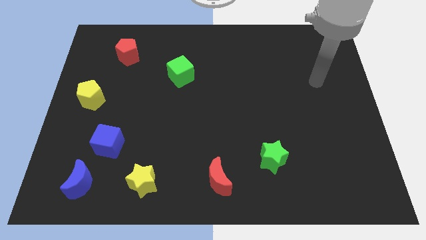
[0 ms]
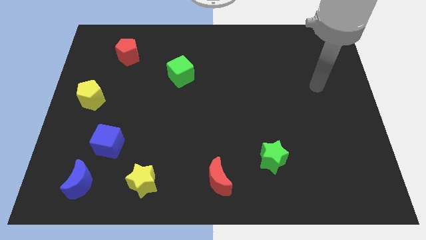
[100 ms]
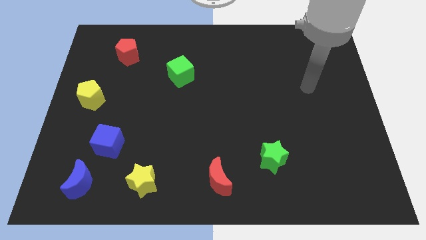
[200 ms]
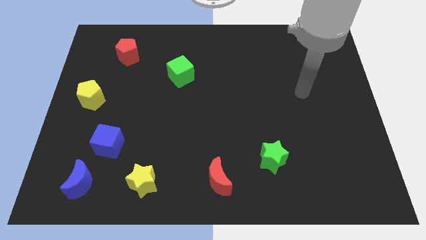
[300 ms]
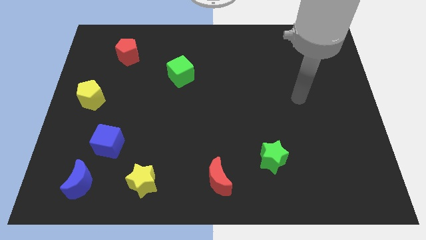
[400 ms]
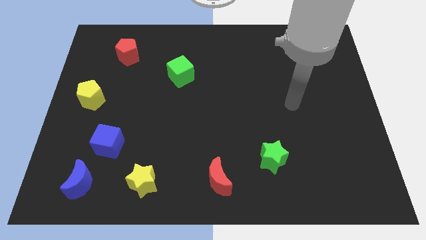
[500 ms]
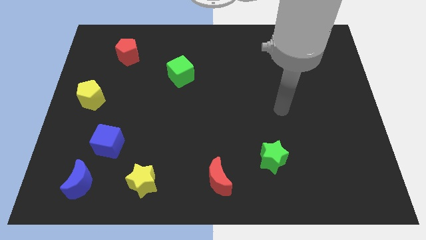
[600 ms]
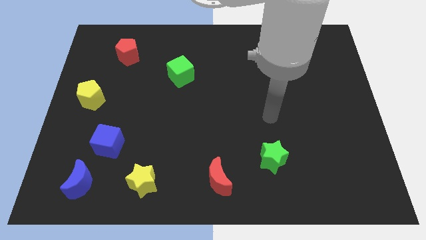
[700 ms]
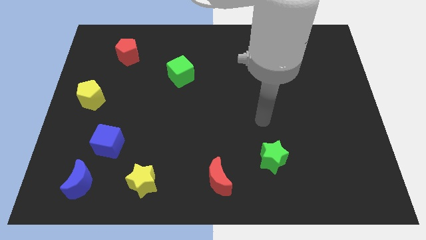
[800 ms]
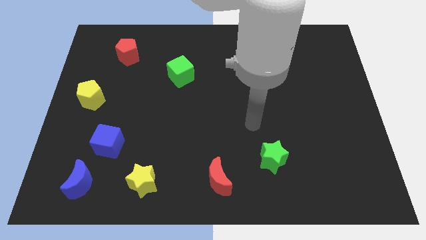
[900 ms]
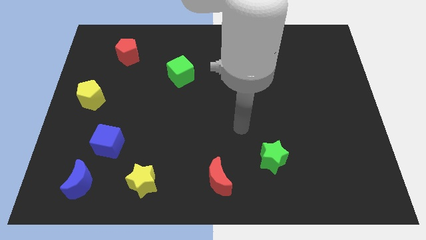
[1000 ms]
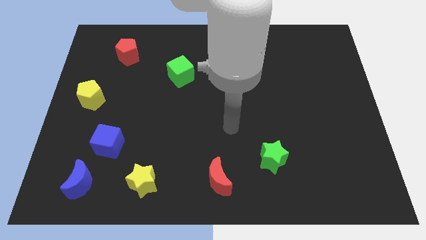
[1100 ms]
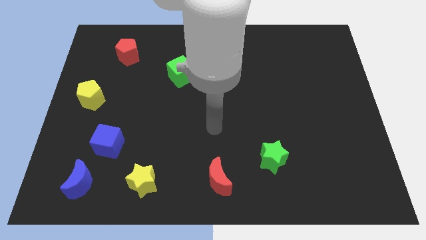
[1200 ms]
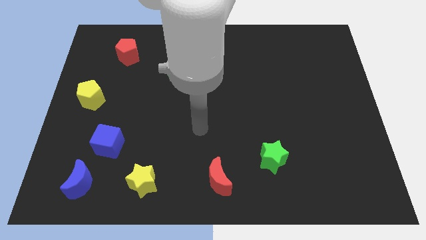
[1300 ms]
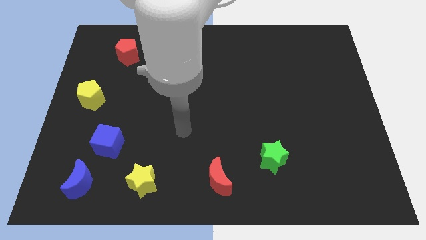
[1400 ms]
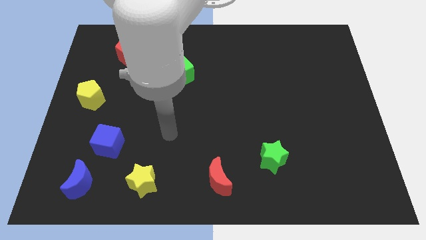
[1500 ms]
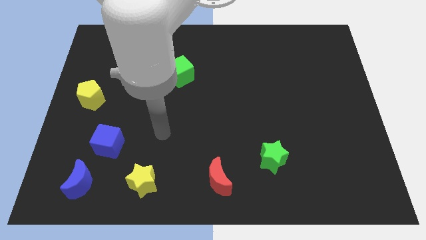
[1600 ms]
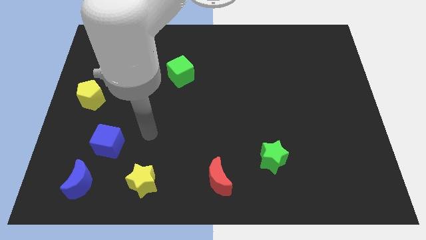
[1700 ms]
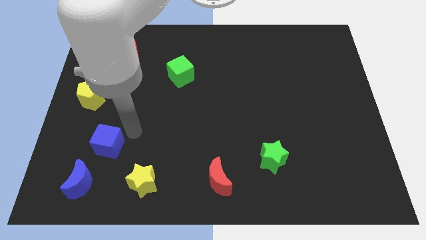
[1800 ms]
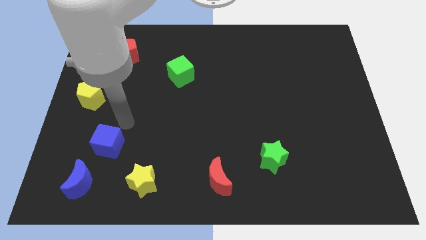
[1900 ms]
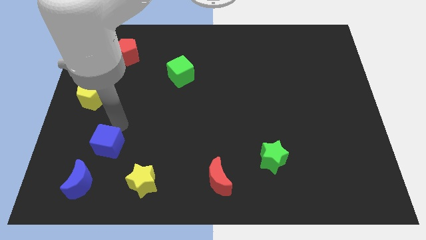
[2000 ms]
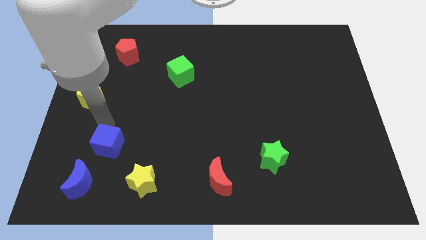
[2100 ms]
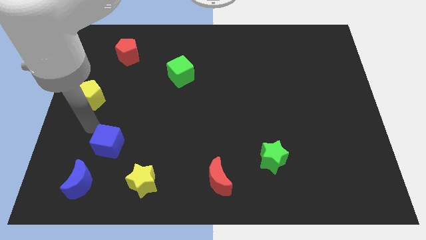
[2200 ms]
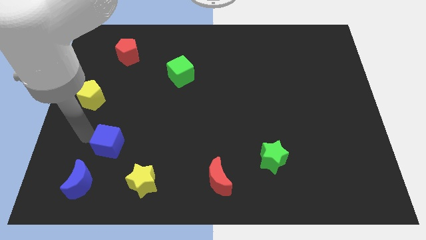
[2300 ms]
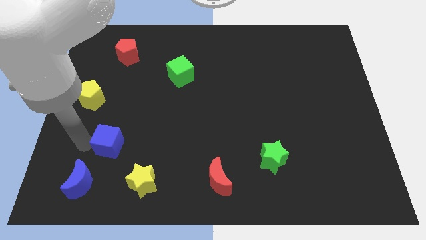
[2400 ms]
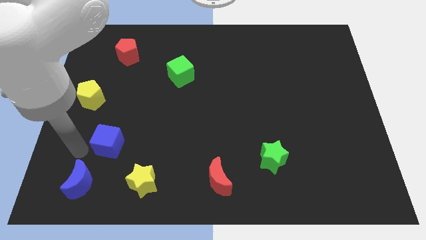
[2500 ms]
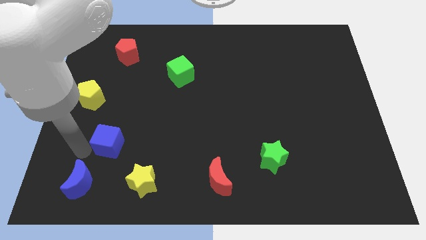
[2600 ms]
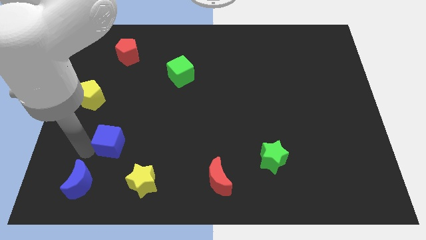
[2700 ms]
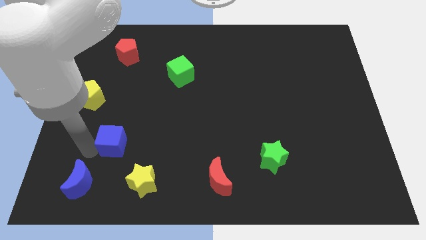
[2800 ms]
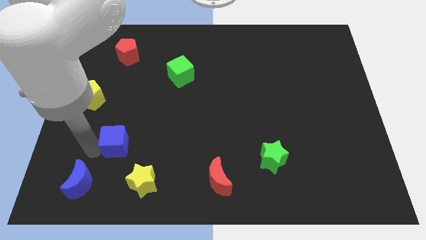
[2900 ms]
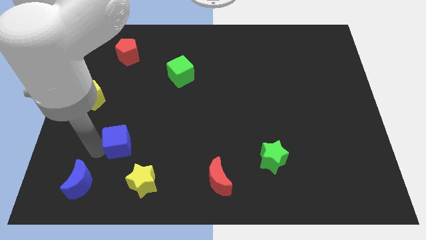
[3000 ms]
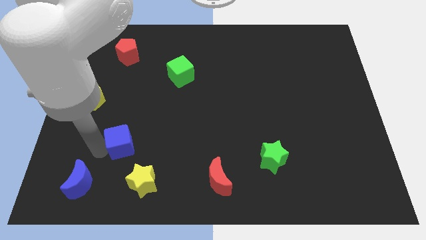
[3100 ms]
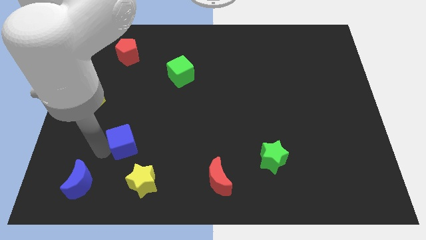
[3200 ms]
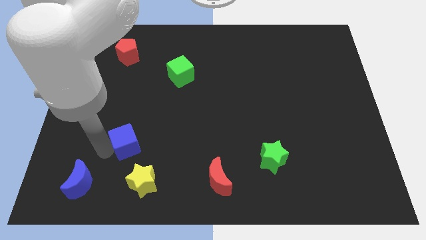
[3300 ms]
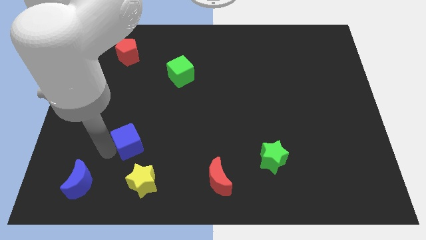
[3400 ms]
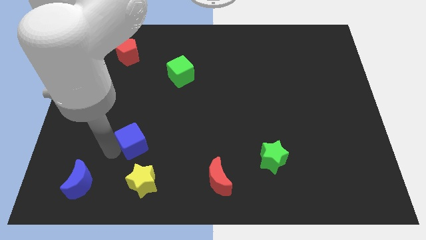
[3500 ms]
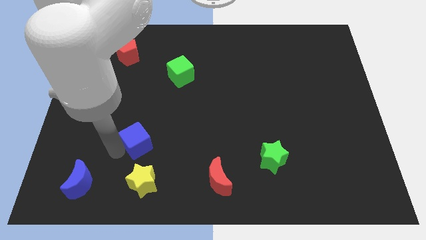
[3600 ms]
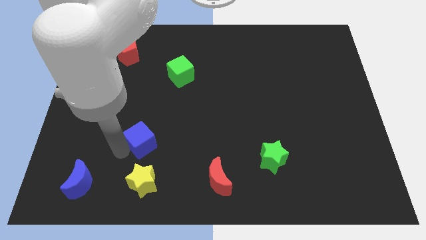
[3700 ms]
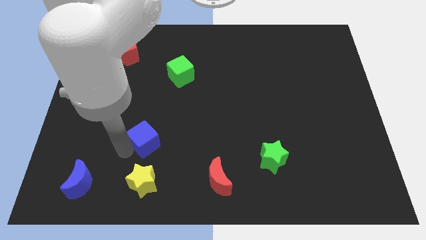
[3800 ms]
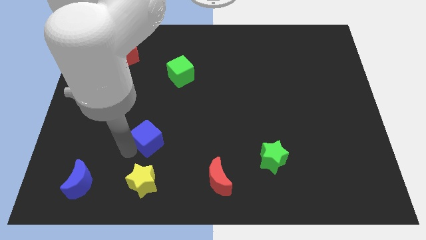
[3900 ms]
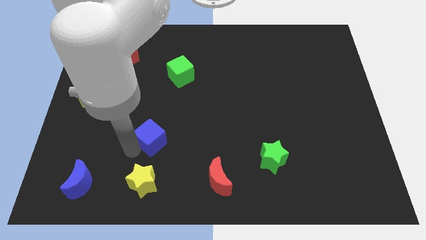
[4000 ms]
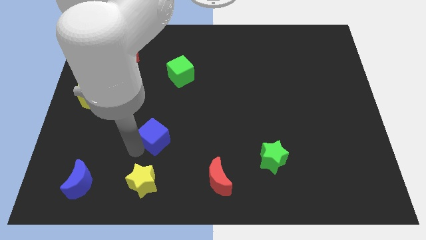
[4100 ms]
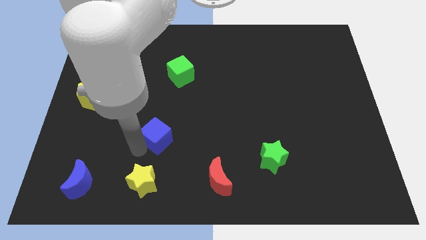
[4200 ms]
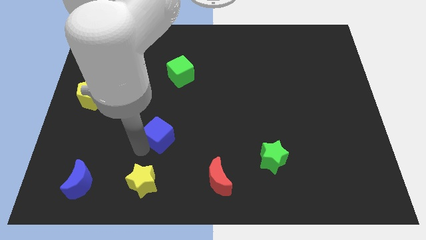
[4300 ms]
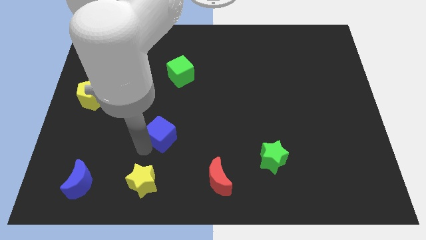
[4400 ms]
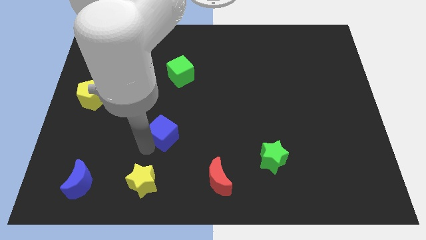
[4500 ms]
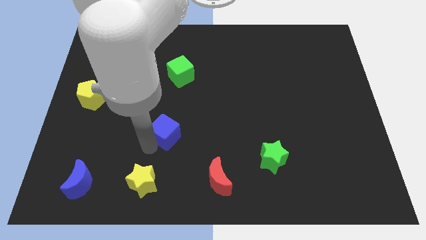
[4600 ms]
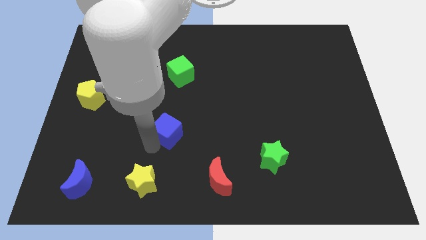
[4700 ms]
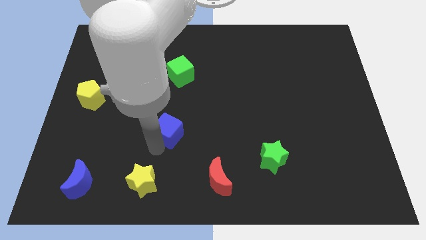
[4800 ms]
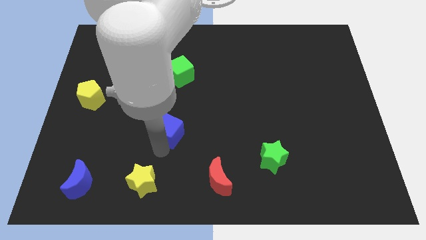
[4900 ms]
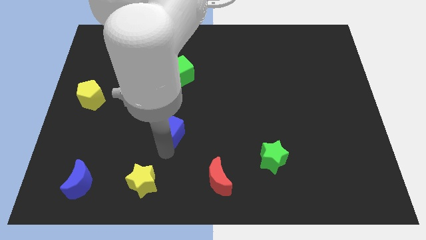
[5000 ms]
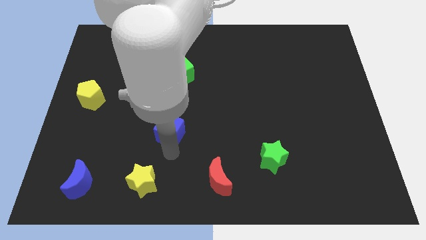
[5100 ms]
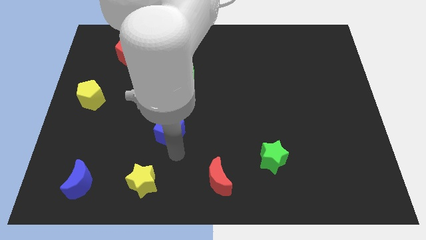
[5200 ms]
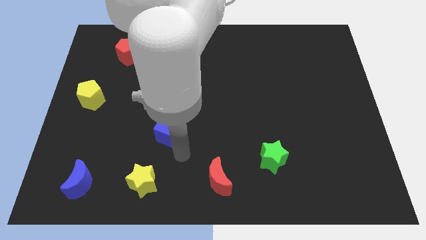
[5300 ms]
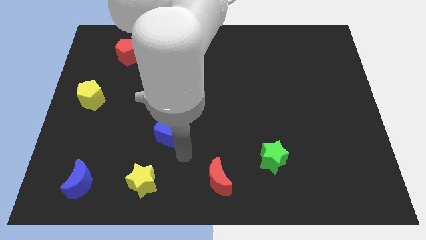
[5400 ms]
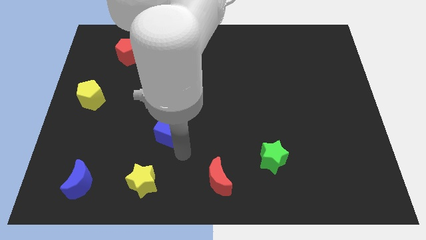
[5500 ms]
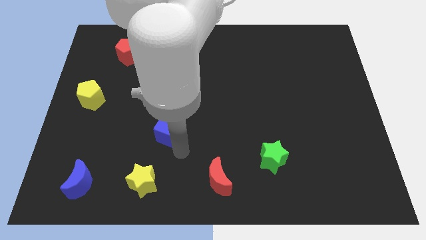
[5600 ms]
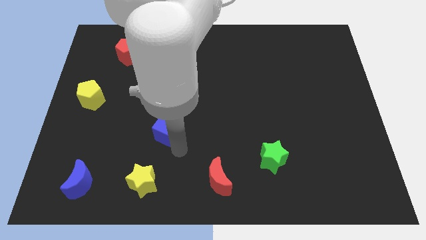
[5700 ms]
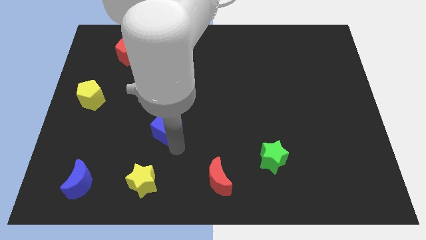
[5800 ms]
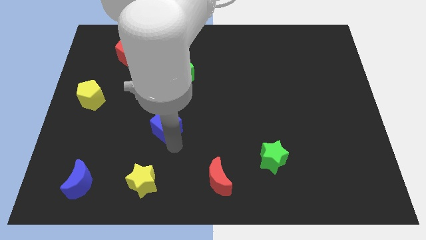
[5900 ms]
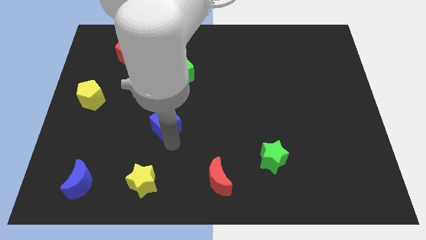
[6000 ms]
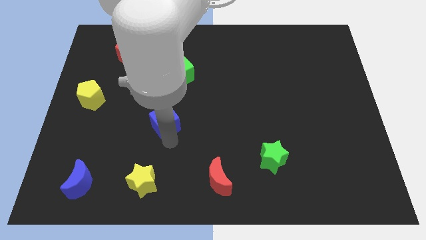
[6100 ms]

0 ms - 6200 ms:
slide the blue cube to the middle

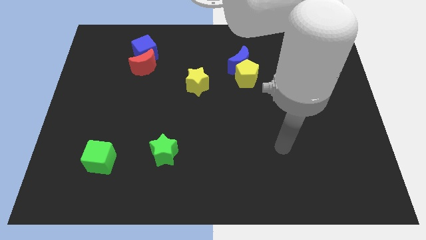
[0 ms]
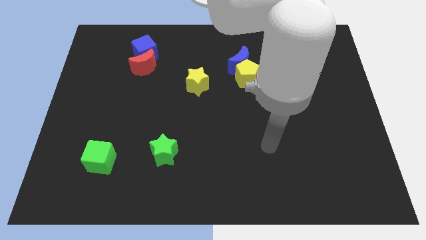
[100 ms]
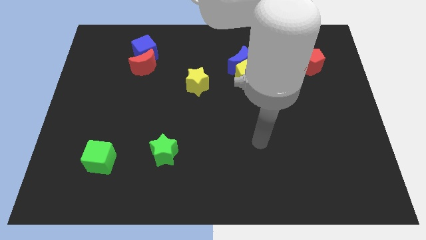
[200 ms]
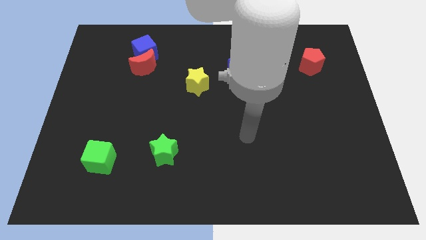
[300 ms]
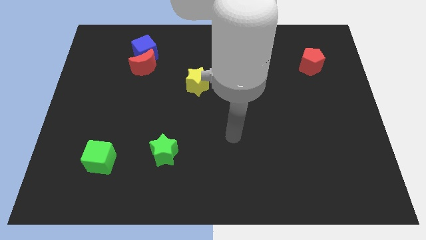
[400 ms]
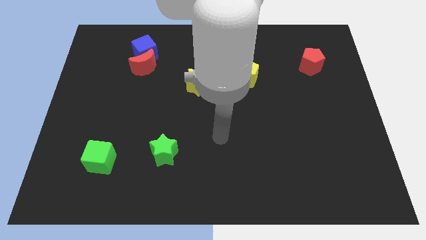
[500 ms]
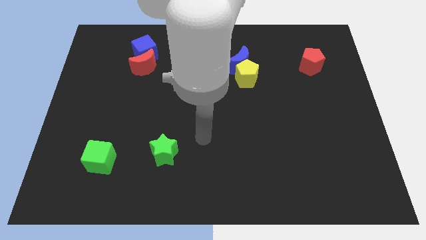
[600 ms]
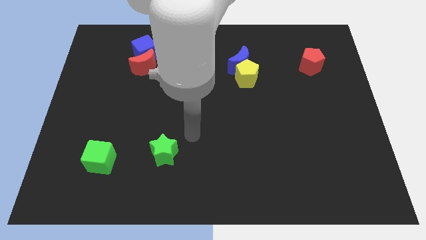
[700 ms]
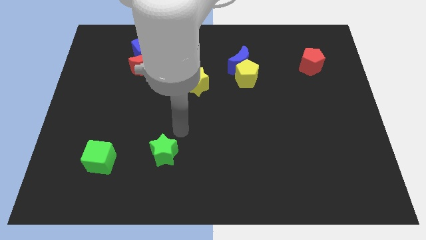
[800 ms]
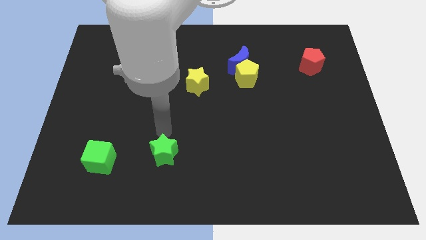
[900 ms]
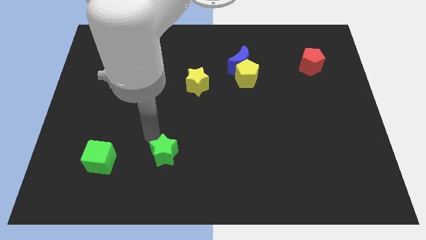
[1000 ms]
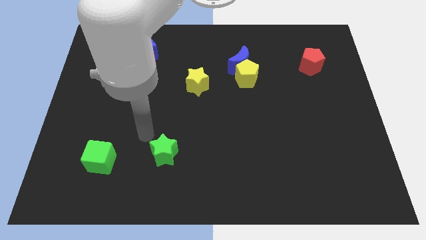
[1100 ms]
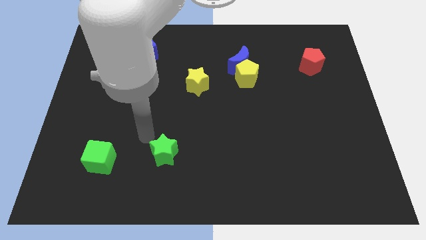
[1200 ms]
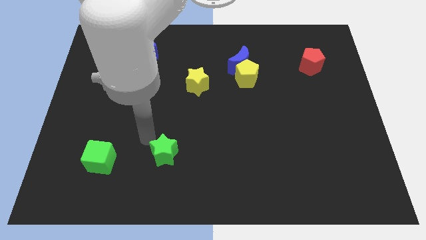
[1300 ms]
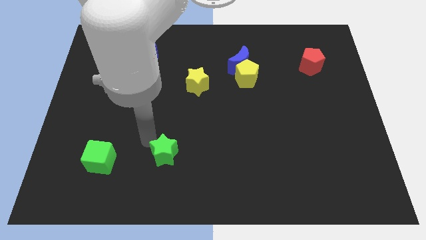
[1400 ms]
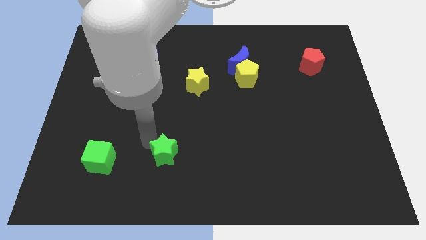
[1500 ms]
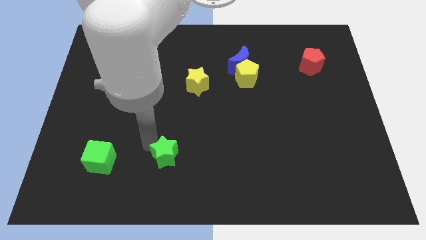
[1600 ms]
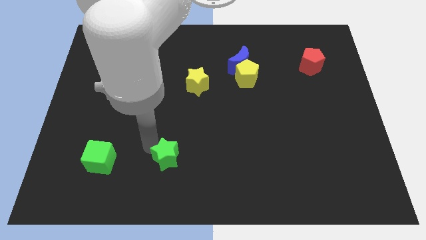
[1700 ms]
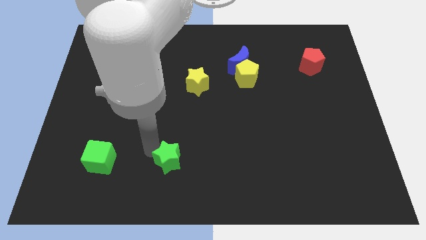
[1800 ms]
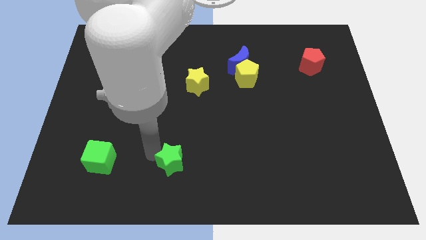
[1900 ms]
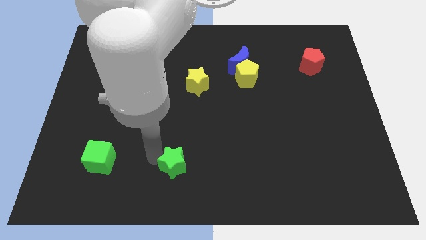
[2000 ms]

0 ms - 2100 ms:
push the green star to the bottom side
